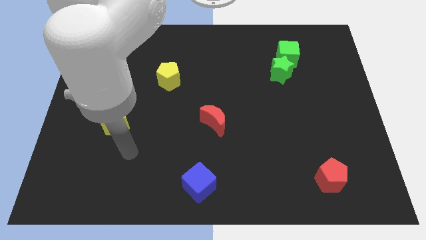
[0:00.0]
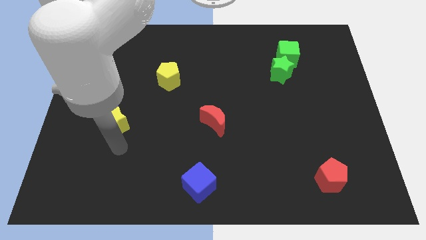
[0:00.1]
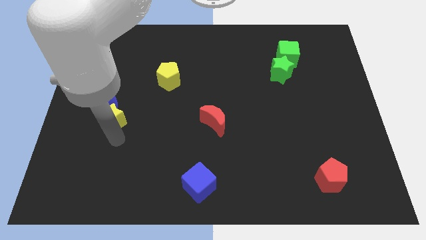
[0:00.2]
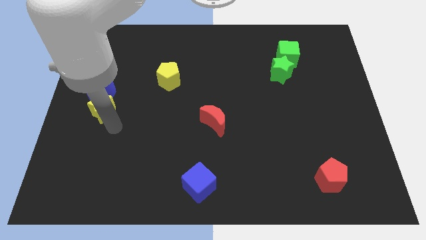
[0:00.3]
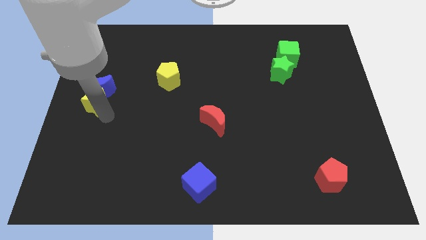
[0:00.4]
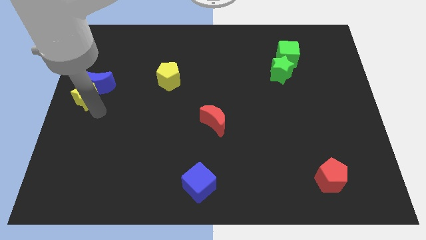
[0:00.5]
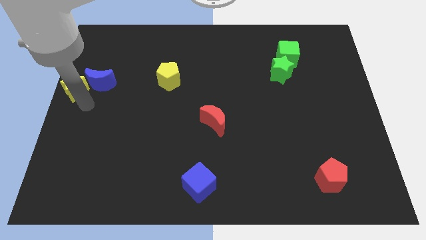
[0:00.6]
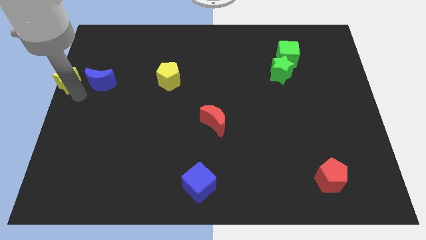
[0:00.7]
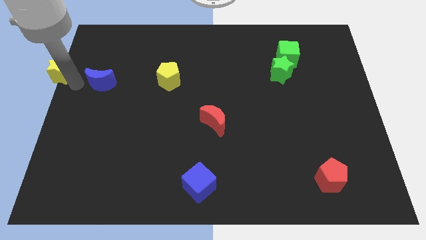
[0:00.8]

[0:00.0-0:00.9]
separate the blue moon from the yellow star

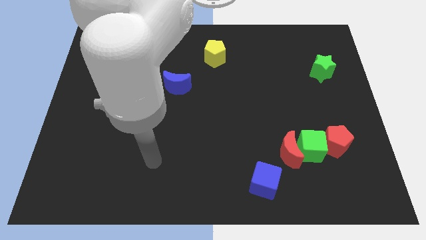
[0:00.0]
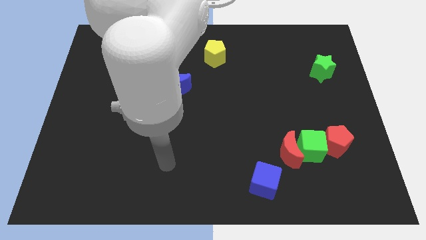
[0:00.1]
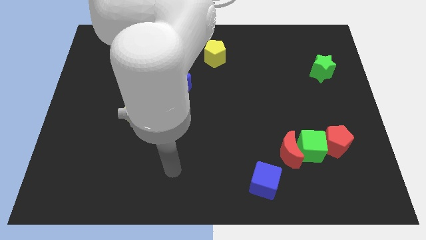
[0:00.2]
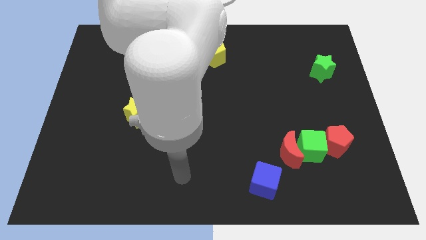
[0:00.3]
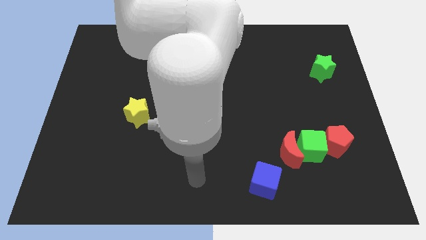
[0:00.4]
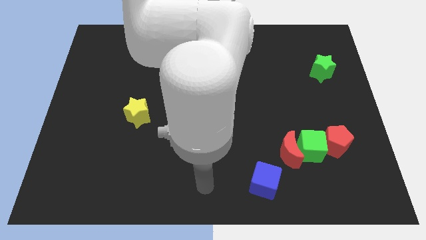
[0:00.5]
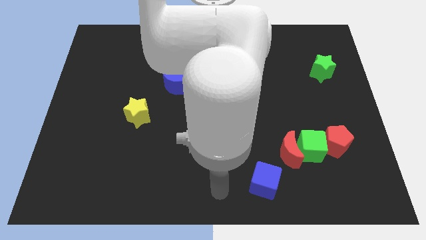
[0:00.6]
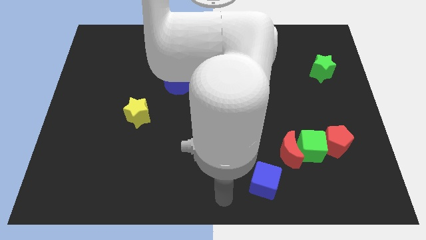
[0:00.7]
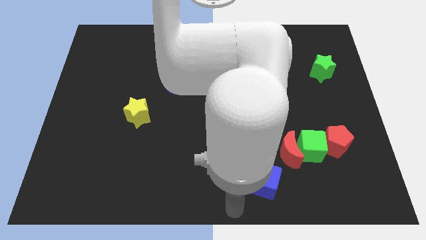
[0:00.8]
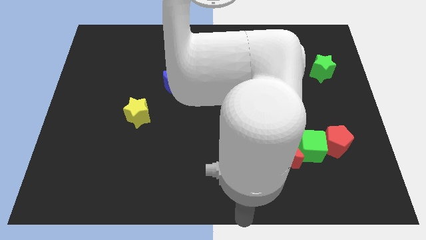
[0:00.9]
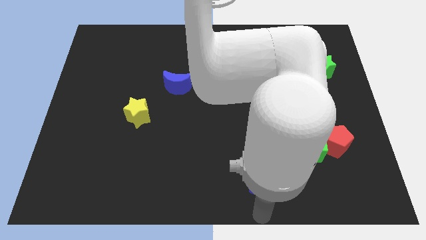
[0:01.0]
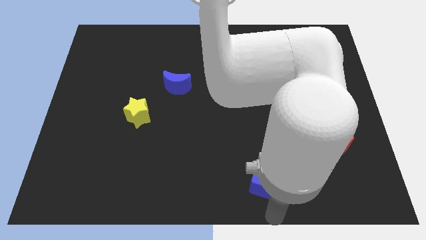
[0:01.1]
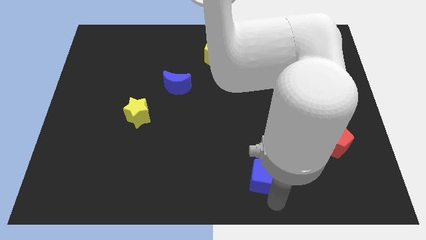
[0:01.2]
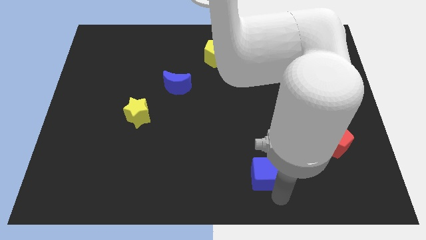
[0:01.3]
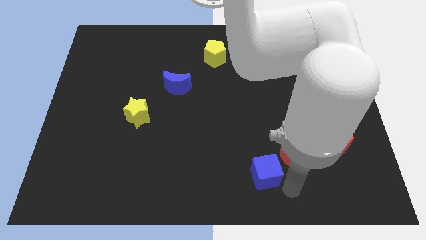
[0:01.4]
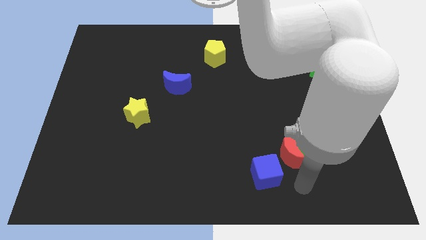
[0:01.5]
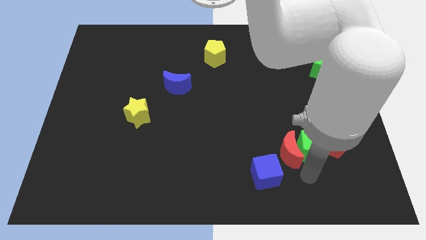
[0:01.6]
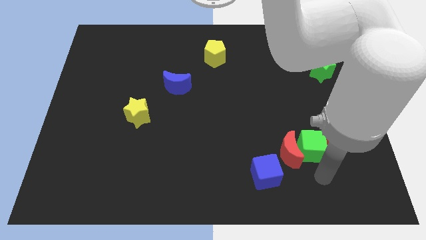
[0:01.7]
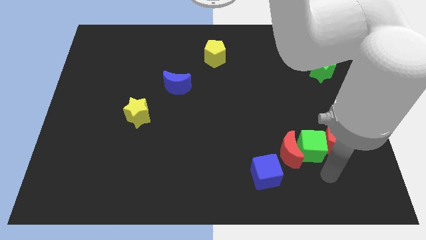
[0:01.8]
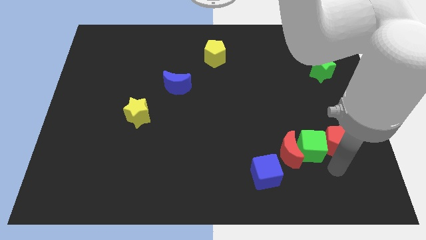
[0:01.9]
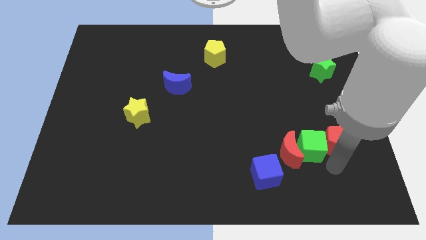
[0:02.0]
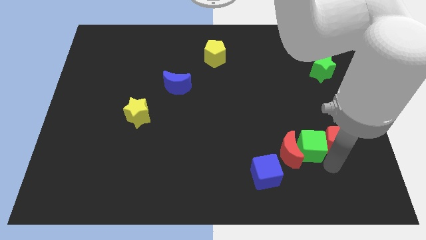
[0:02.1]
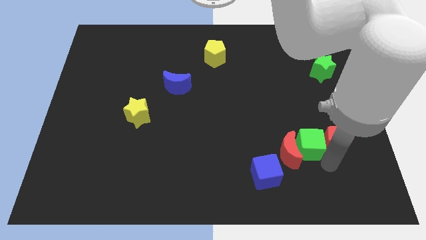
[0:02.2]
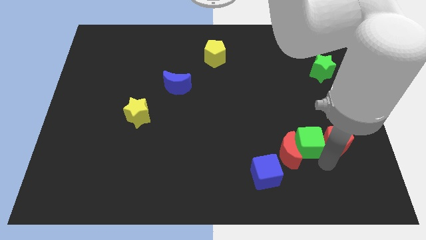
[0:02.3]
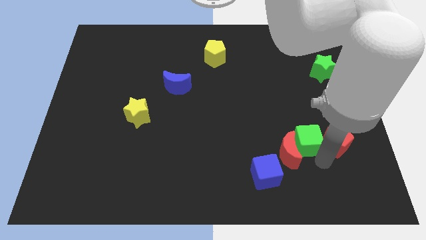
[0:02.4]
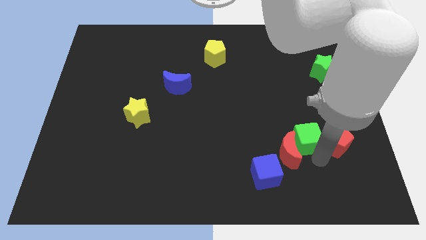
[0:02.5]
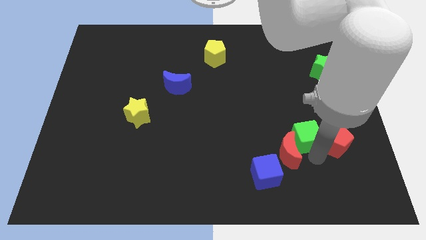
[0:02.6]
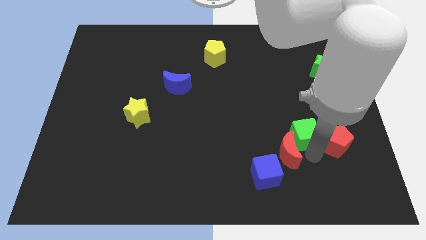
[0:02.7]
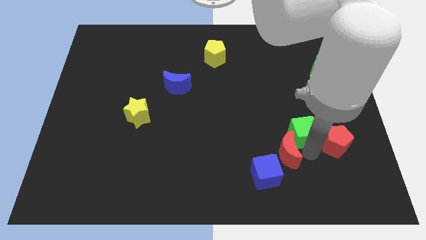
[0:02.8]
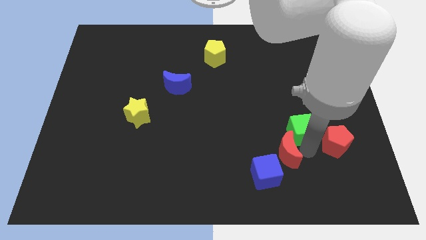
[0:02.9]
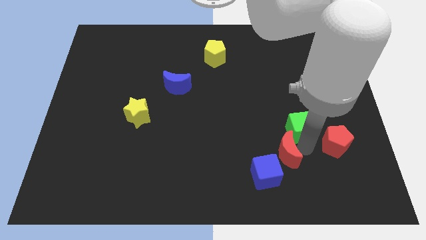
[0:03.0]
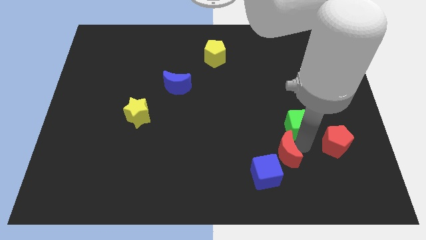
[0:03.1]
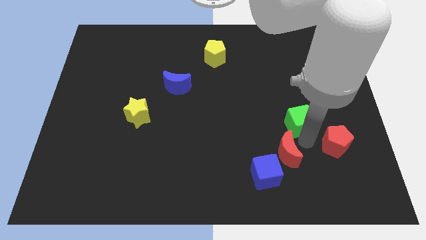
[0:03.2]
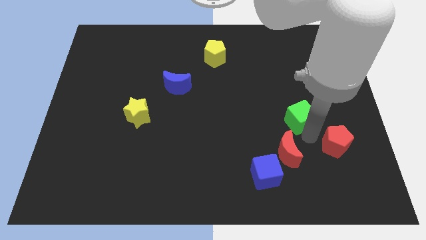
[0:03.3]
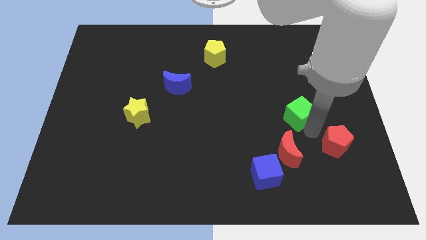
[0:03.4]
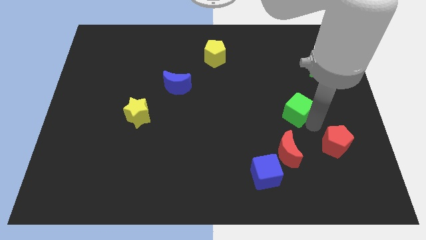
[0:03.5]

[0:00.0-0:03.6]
pull the green cube apart from the red moon and red pentagon

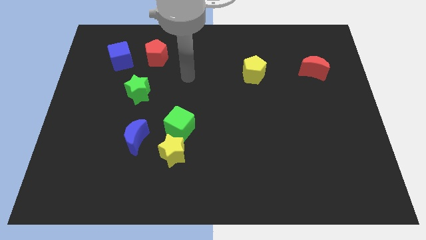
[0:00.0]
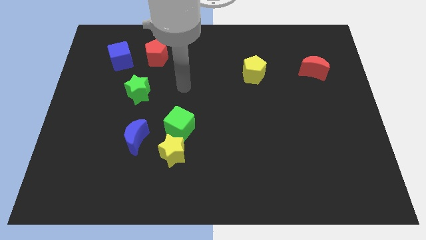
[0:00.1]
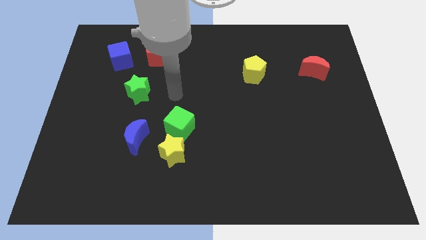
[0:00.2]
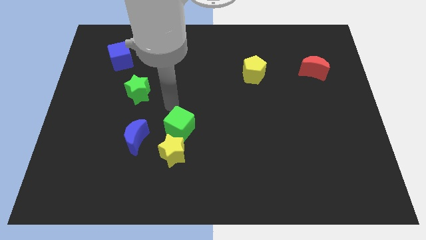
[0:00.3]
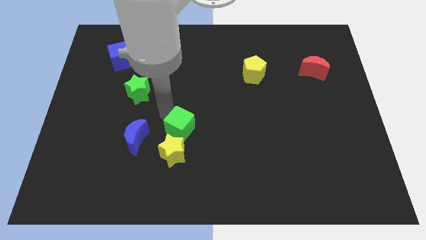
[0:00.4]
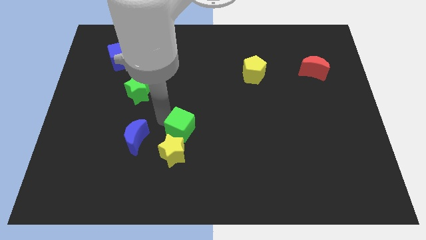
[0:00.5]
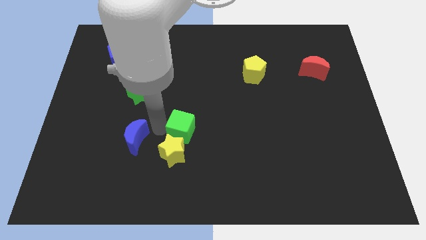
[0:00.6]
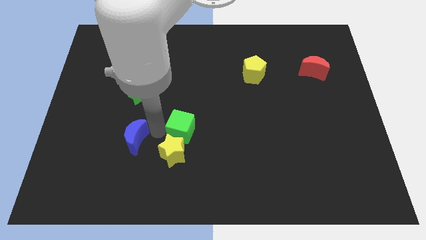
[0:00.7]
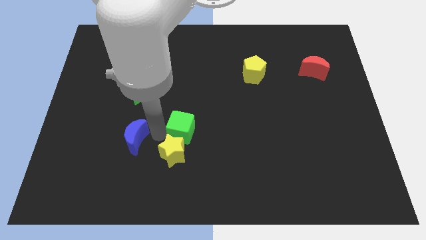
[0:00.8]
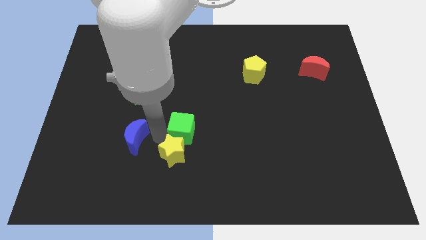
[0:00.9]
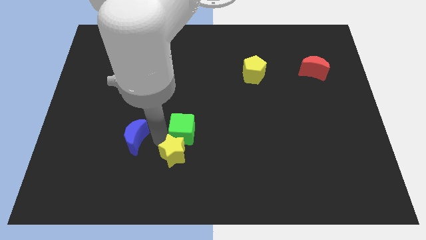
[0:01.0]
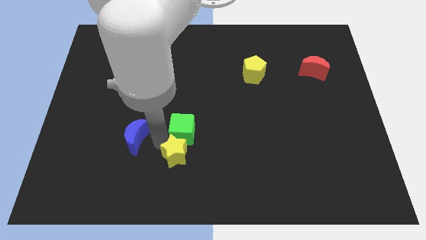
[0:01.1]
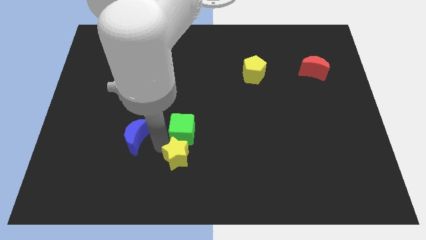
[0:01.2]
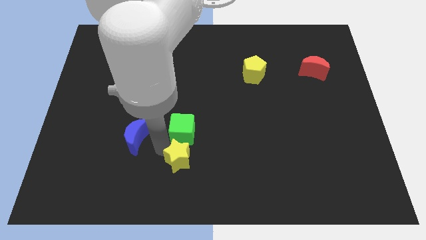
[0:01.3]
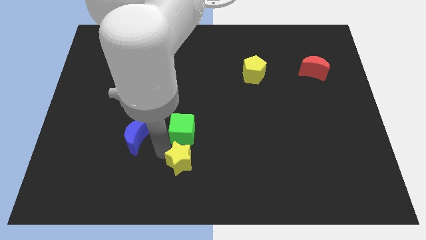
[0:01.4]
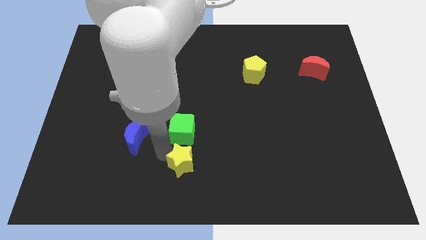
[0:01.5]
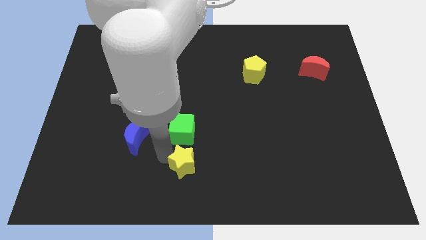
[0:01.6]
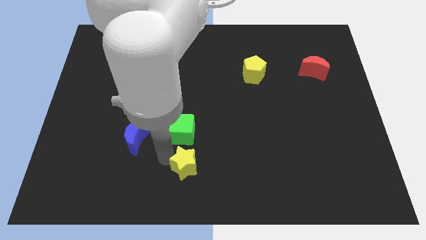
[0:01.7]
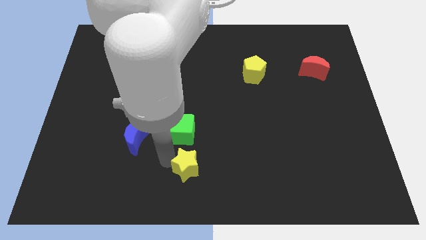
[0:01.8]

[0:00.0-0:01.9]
separate the yellow star from the green cube and blue moon

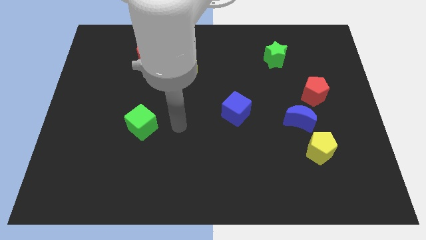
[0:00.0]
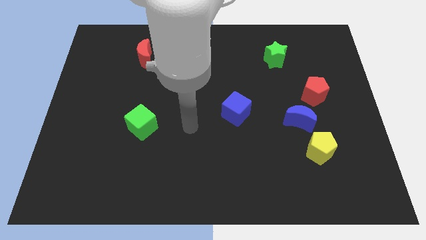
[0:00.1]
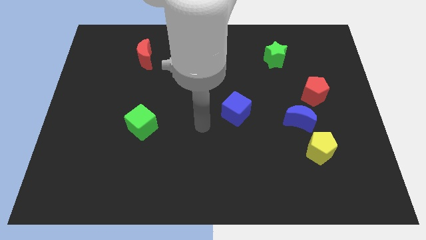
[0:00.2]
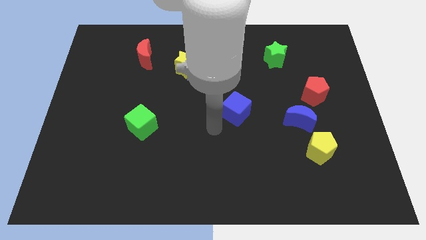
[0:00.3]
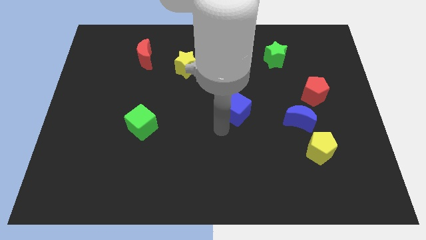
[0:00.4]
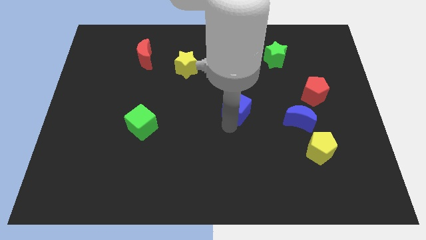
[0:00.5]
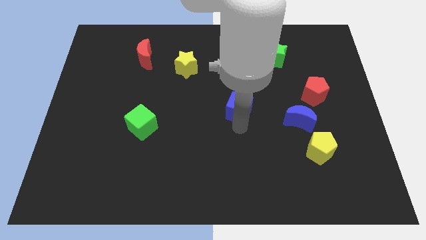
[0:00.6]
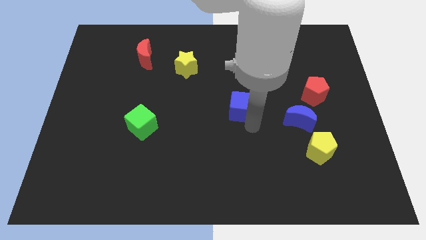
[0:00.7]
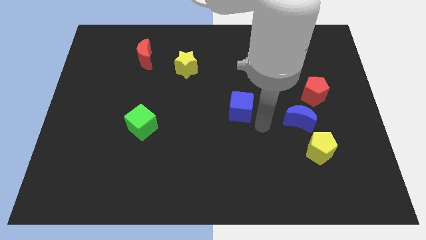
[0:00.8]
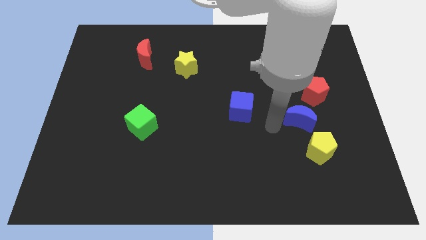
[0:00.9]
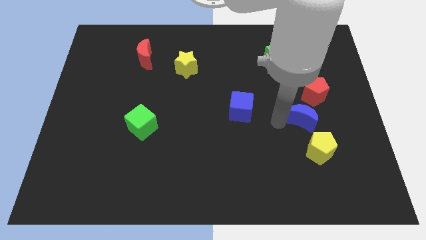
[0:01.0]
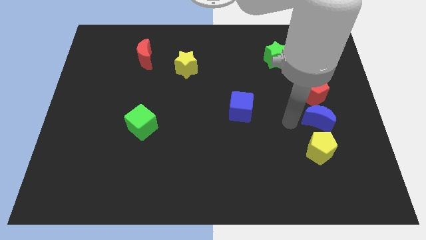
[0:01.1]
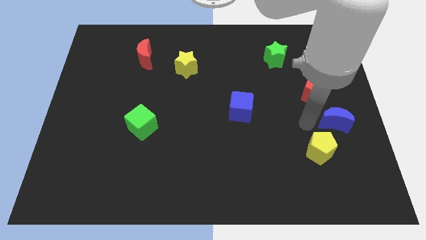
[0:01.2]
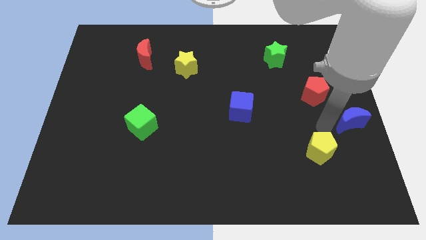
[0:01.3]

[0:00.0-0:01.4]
separate the yellow pentagon from the blue moon

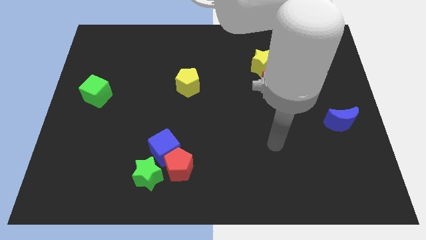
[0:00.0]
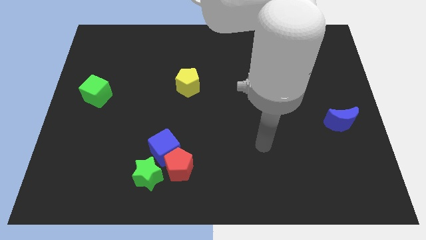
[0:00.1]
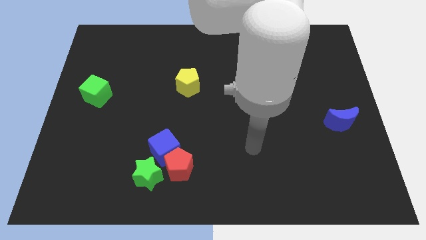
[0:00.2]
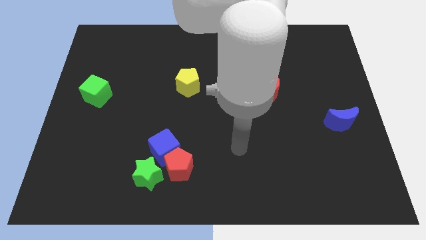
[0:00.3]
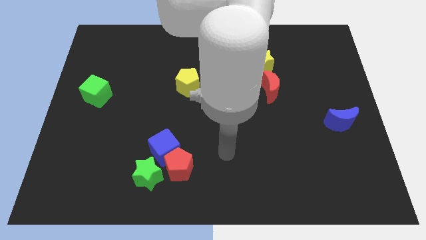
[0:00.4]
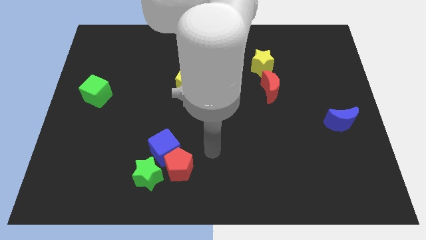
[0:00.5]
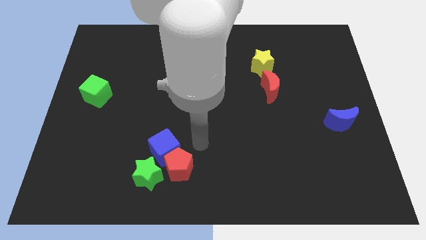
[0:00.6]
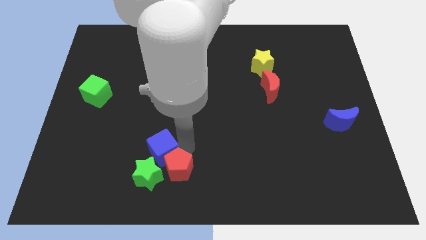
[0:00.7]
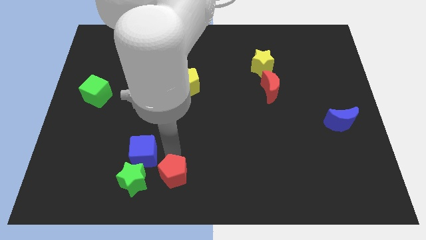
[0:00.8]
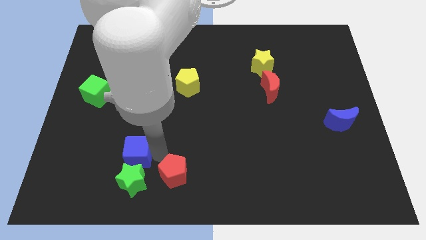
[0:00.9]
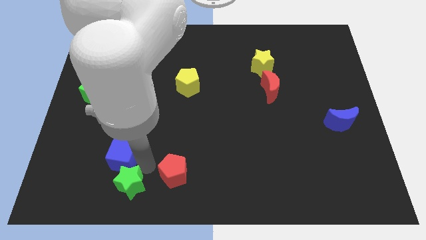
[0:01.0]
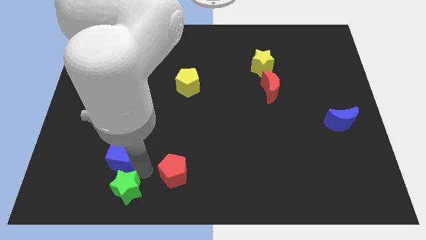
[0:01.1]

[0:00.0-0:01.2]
move the red pentagon away from the blue cube and green star
